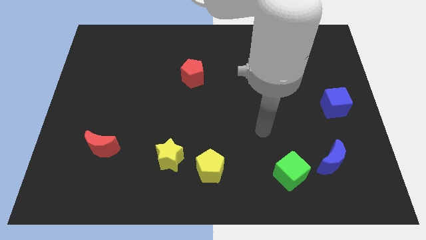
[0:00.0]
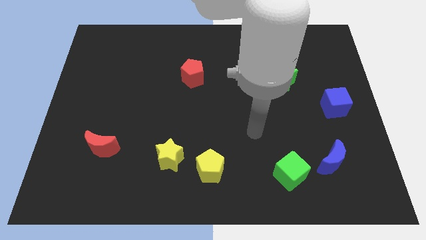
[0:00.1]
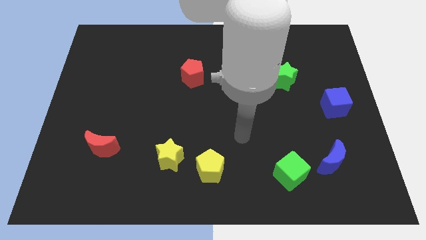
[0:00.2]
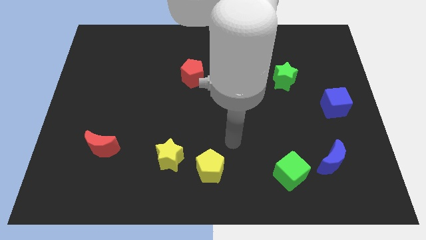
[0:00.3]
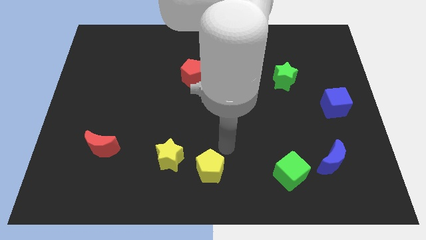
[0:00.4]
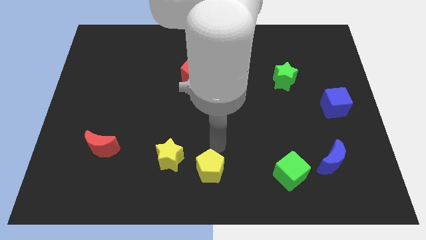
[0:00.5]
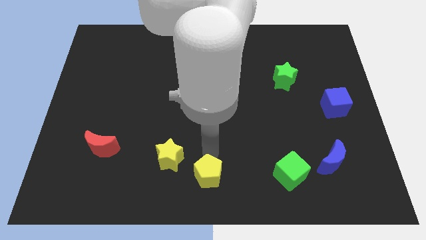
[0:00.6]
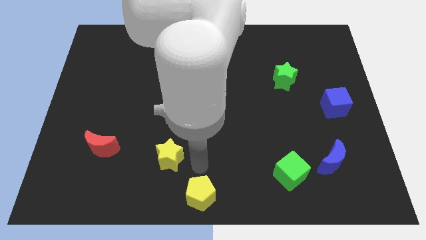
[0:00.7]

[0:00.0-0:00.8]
pull the yellow star apart from the yellow pentagon

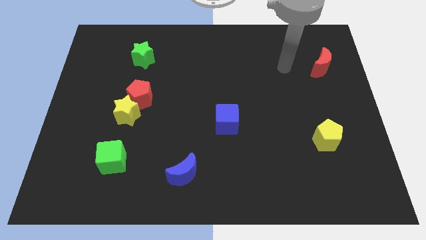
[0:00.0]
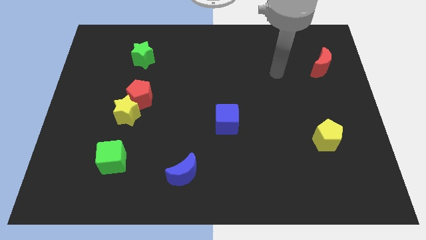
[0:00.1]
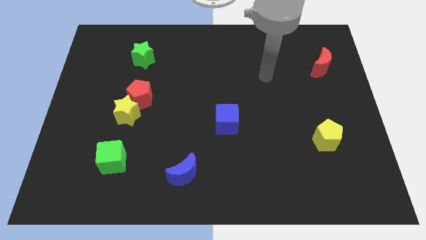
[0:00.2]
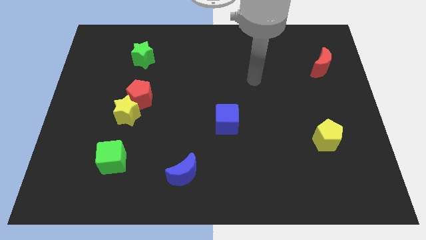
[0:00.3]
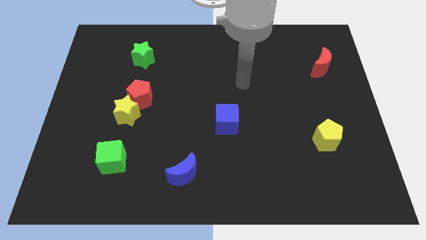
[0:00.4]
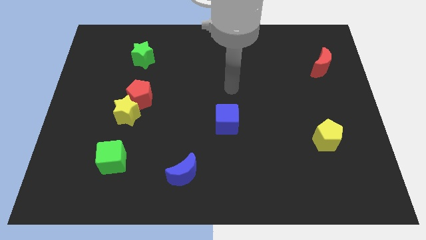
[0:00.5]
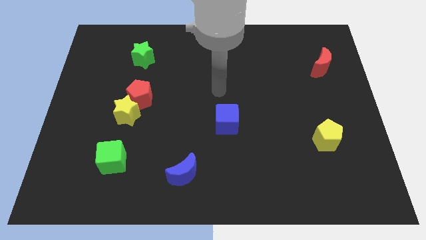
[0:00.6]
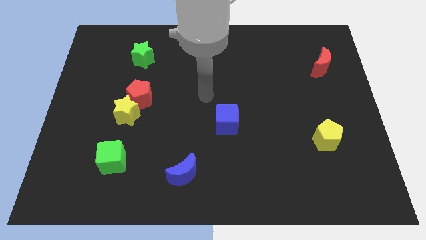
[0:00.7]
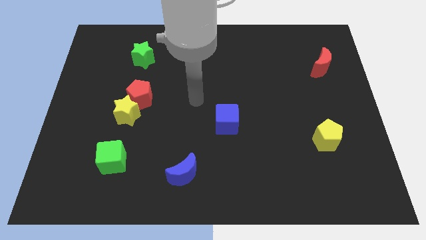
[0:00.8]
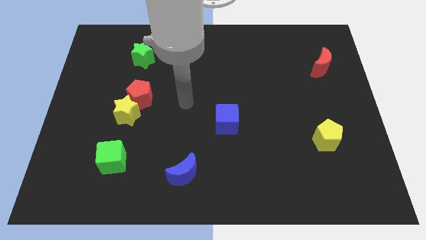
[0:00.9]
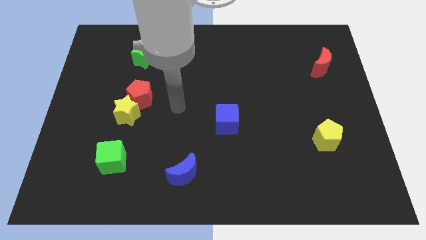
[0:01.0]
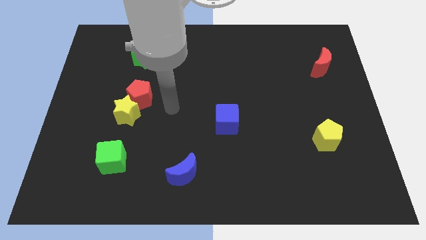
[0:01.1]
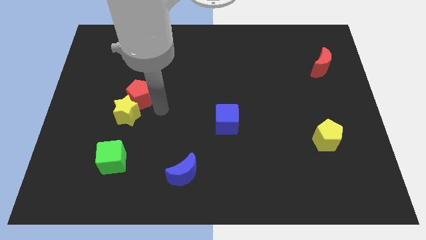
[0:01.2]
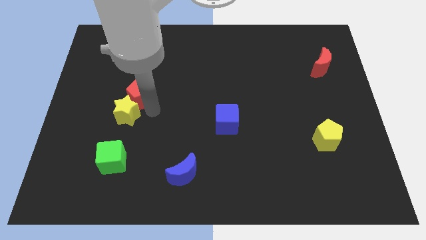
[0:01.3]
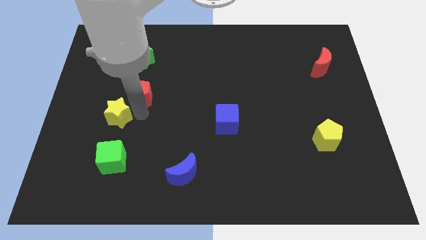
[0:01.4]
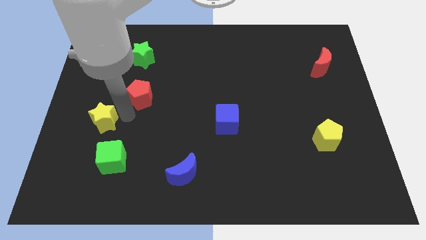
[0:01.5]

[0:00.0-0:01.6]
move the red pentagon away from the yellow star

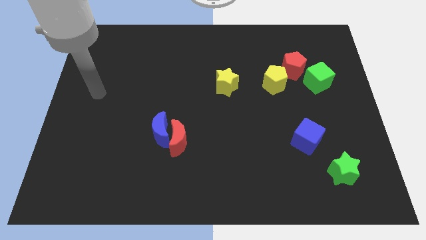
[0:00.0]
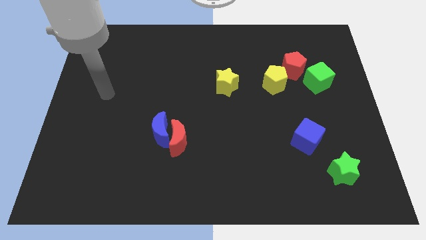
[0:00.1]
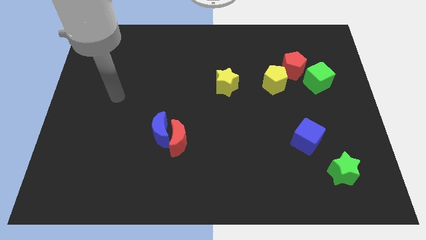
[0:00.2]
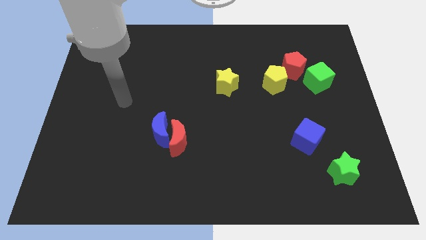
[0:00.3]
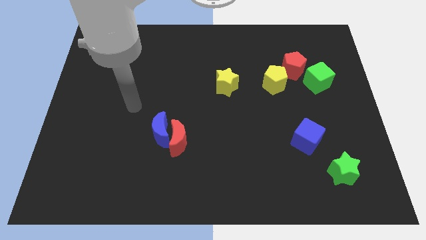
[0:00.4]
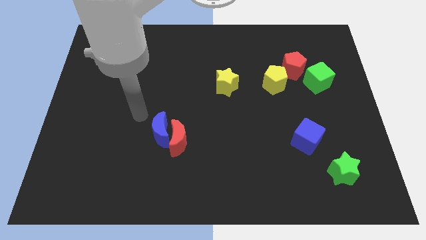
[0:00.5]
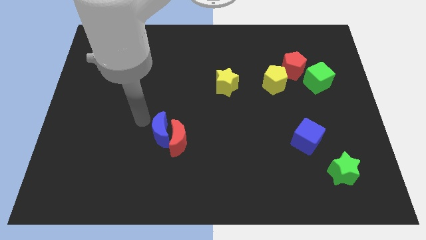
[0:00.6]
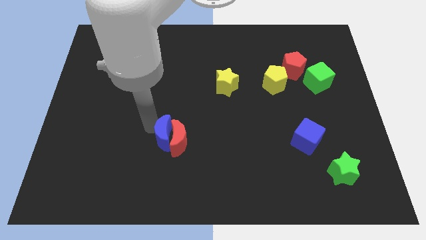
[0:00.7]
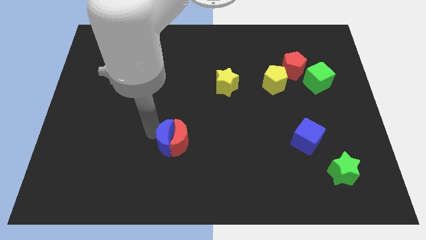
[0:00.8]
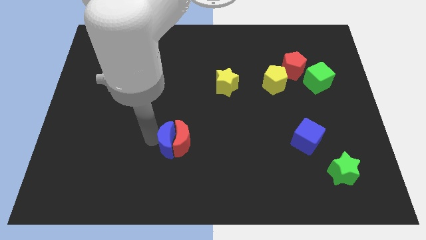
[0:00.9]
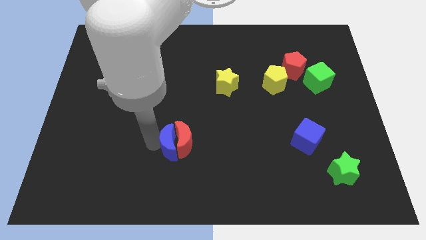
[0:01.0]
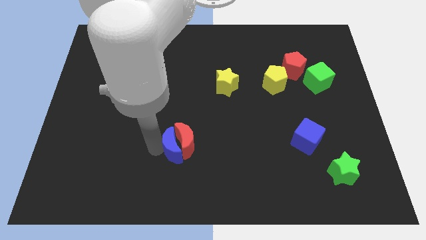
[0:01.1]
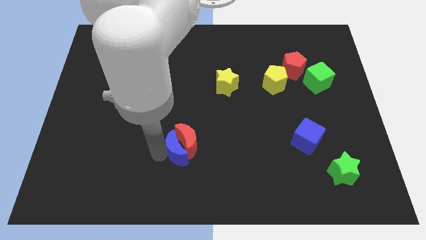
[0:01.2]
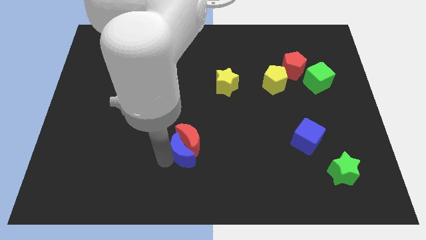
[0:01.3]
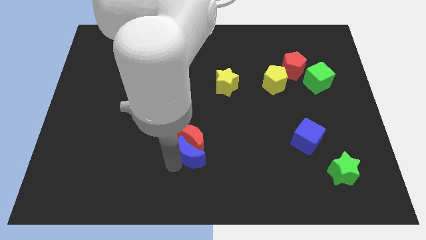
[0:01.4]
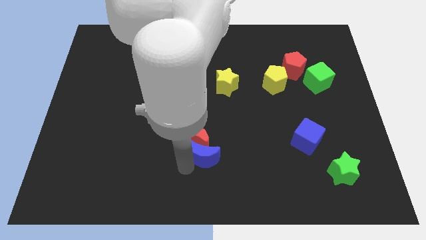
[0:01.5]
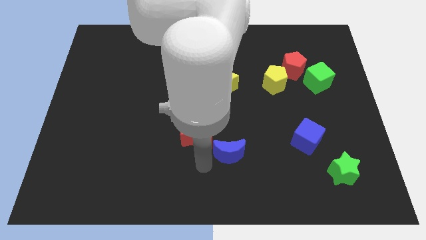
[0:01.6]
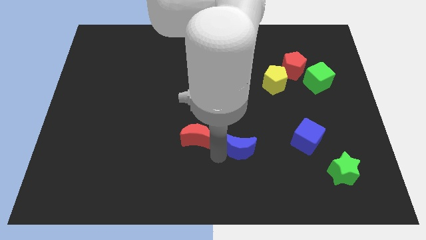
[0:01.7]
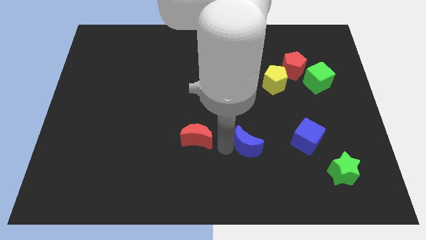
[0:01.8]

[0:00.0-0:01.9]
pull the red moon apart from the blue moon

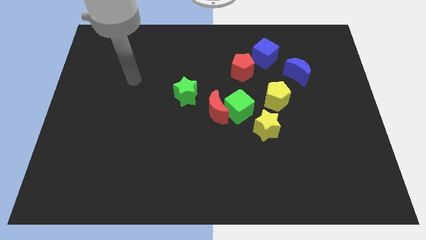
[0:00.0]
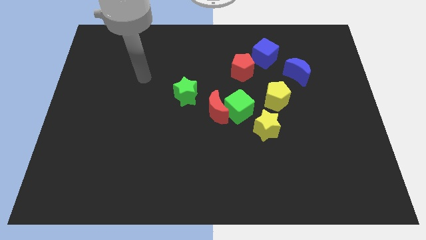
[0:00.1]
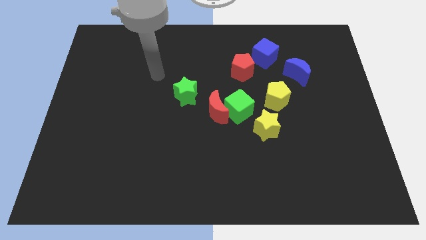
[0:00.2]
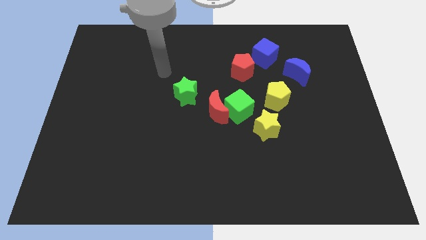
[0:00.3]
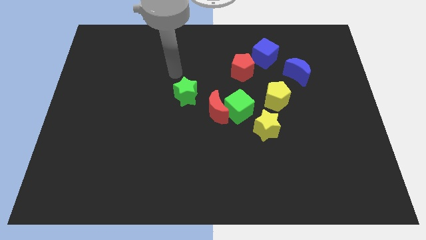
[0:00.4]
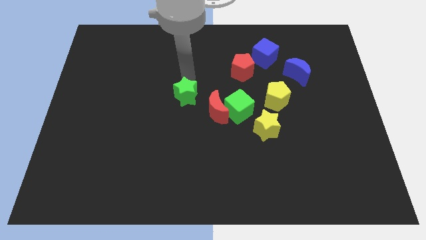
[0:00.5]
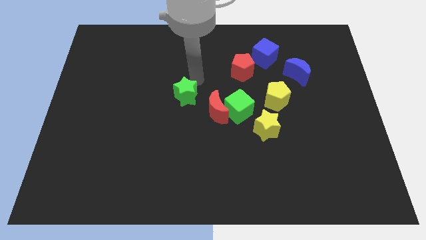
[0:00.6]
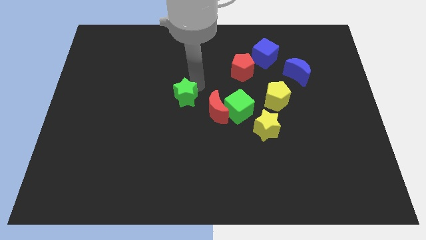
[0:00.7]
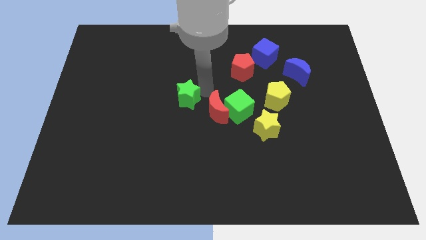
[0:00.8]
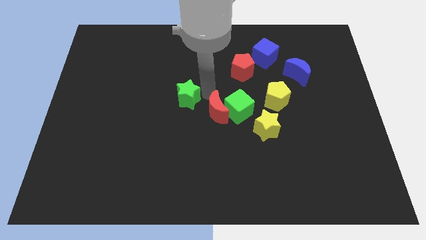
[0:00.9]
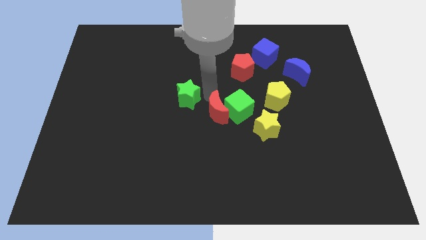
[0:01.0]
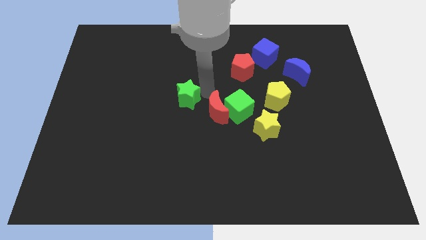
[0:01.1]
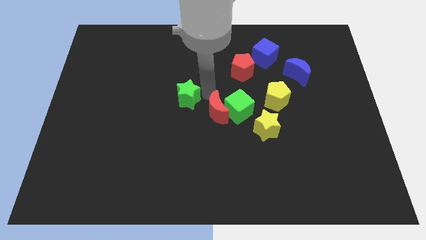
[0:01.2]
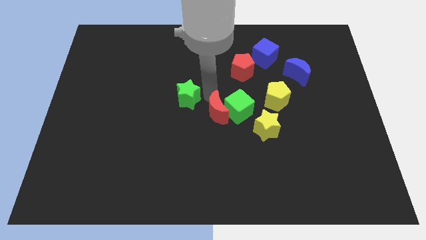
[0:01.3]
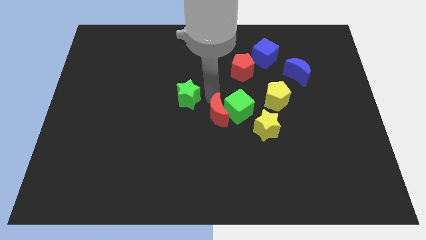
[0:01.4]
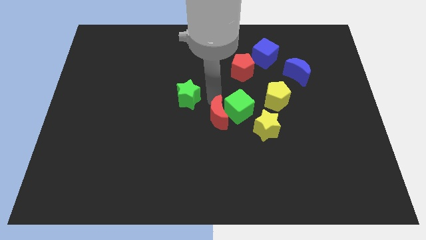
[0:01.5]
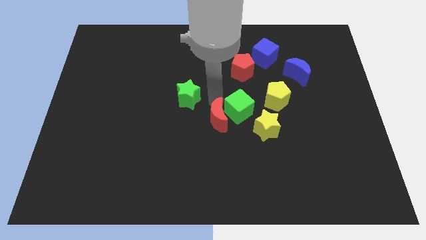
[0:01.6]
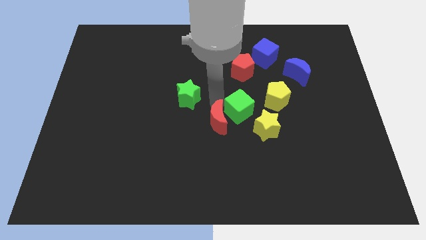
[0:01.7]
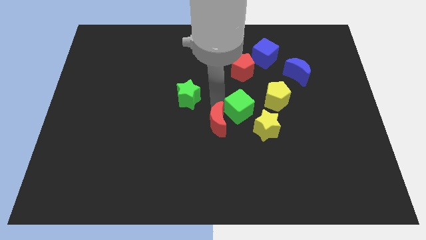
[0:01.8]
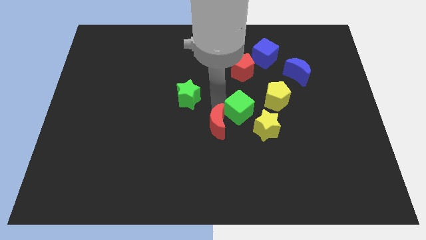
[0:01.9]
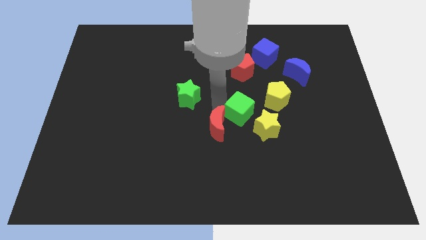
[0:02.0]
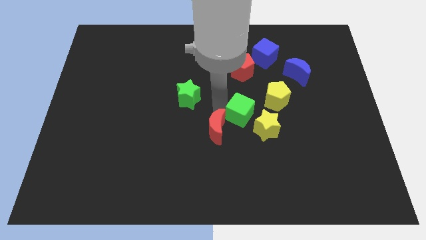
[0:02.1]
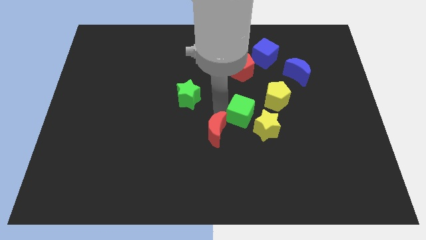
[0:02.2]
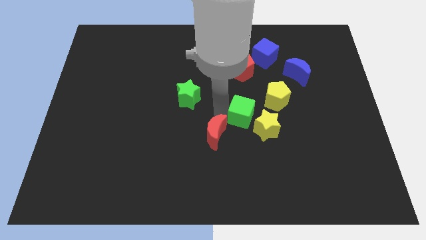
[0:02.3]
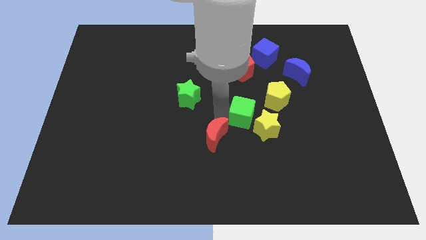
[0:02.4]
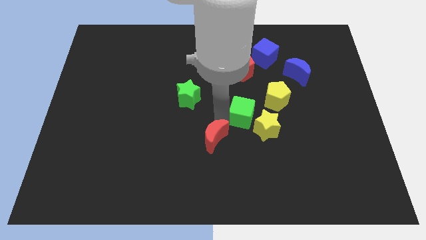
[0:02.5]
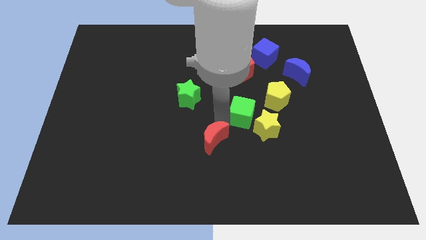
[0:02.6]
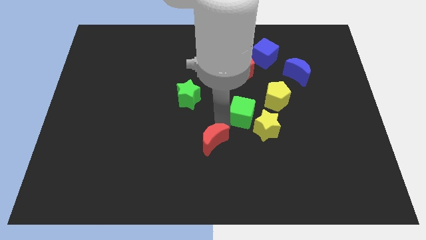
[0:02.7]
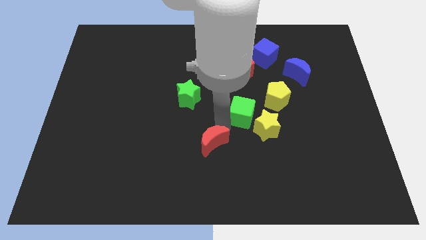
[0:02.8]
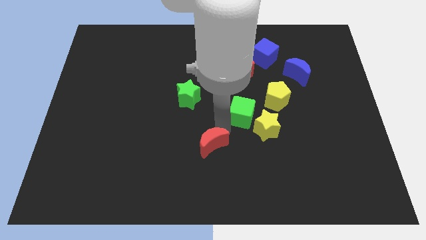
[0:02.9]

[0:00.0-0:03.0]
pull the red moon apart from the green cube and green star

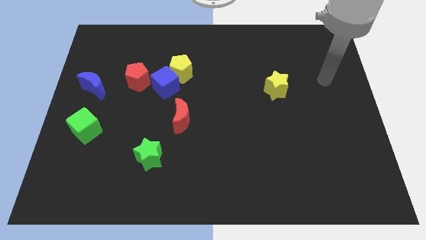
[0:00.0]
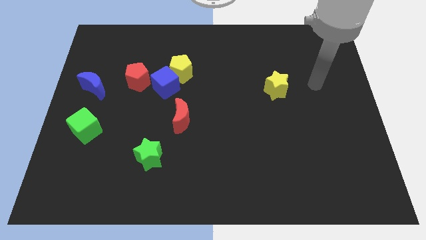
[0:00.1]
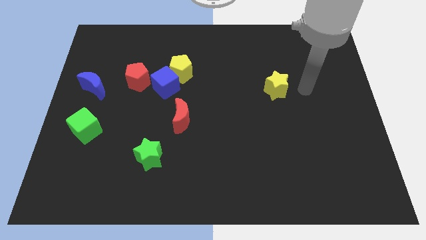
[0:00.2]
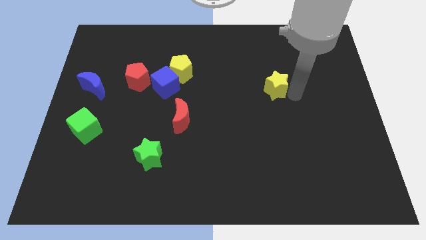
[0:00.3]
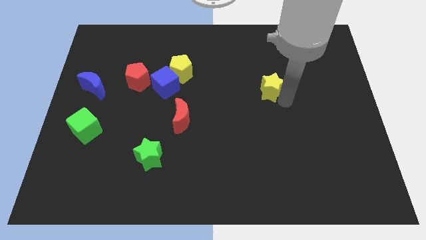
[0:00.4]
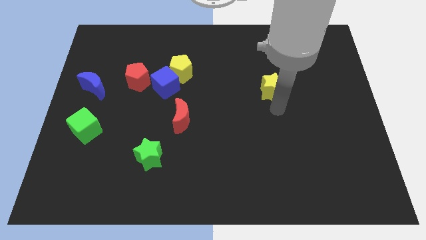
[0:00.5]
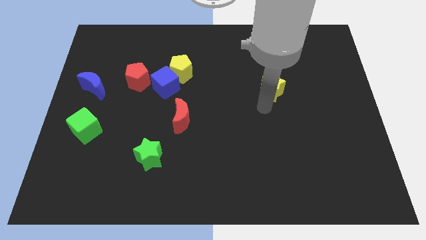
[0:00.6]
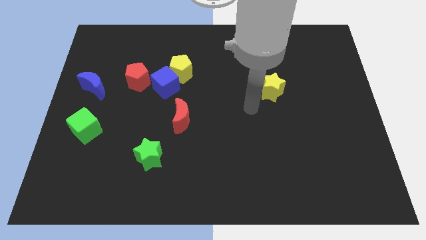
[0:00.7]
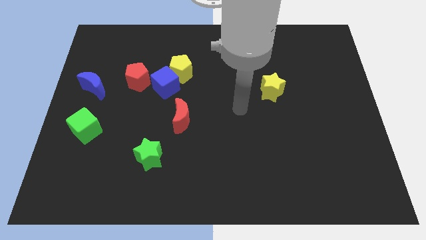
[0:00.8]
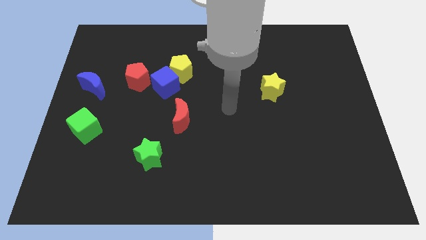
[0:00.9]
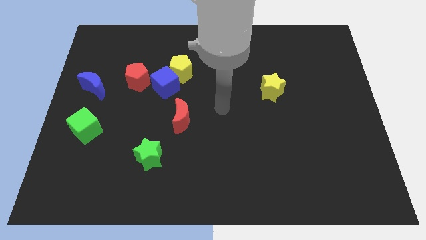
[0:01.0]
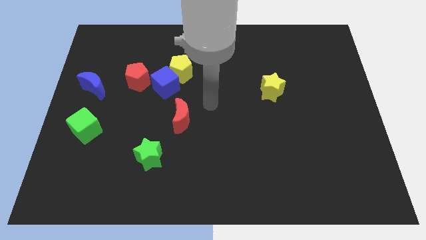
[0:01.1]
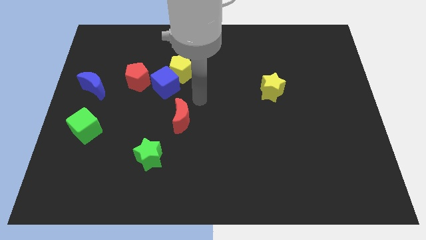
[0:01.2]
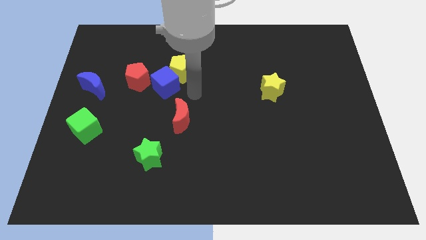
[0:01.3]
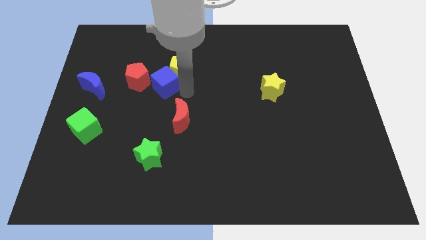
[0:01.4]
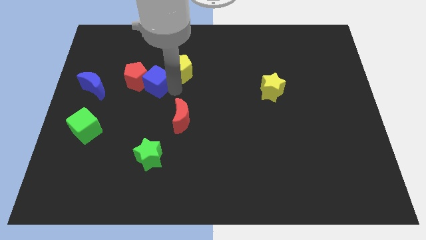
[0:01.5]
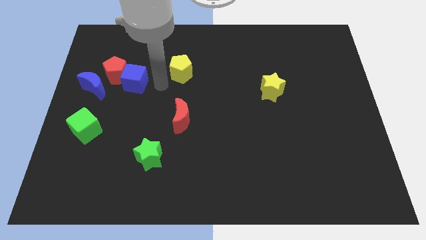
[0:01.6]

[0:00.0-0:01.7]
pull the yellow pentagon apart from the blue cube
